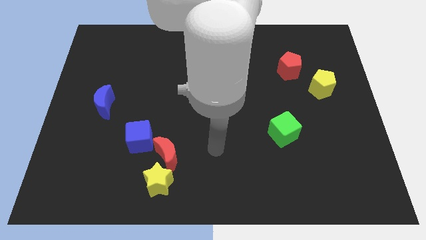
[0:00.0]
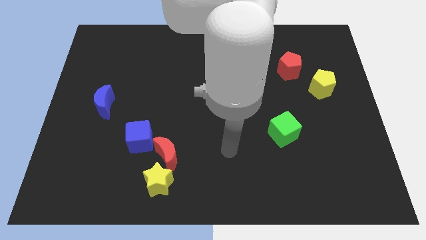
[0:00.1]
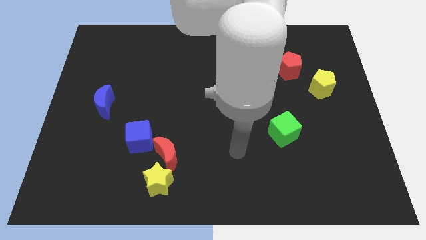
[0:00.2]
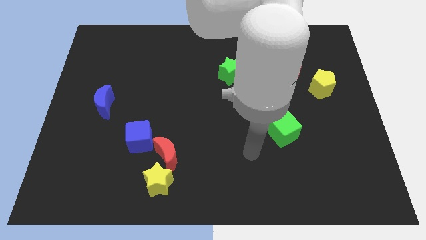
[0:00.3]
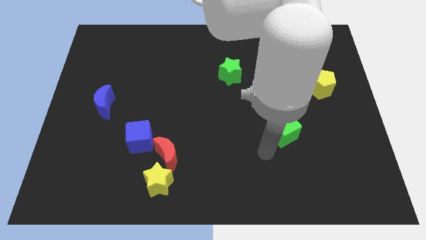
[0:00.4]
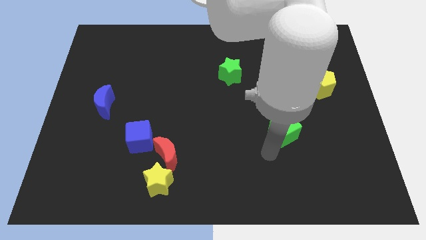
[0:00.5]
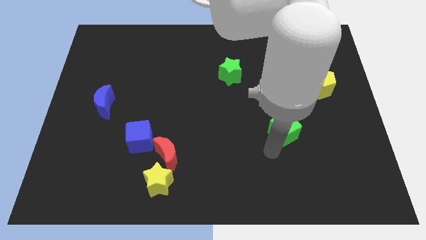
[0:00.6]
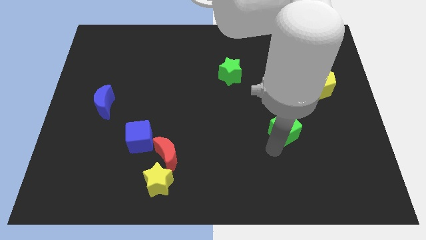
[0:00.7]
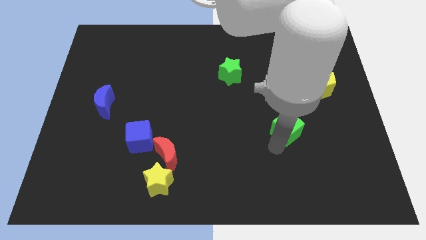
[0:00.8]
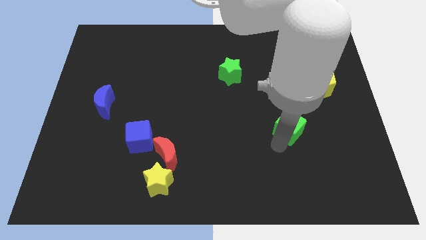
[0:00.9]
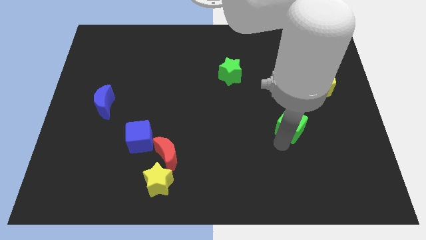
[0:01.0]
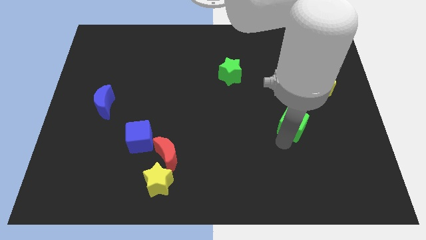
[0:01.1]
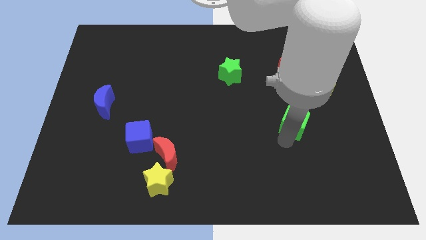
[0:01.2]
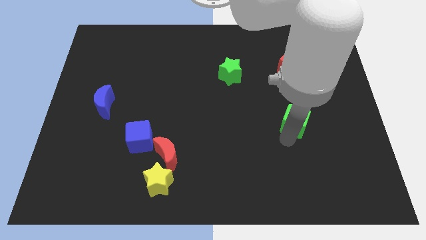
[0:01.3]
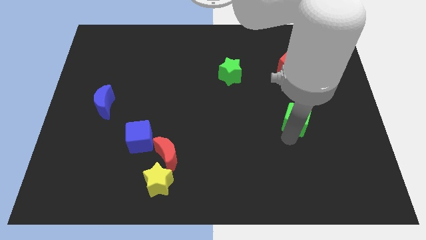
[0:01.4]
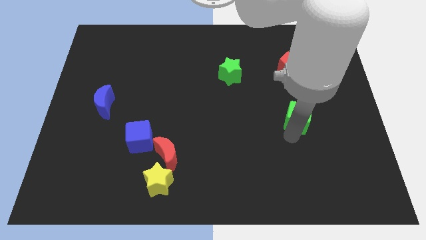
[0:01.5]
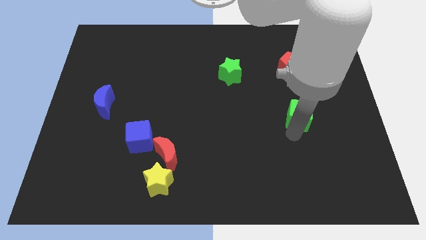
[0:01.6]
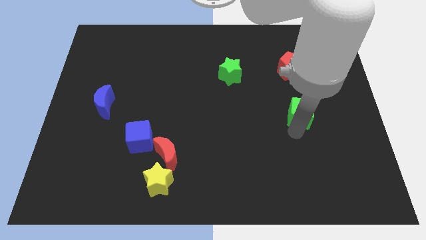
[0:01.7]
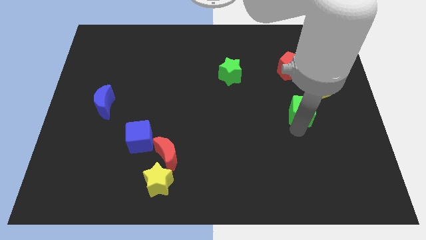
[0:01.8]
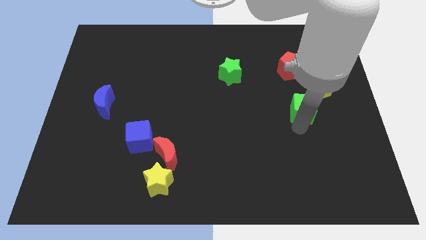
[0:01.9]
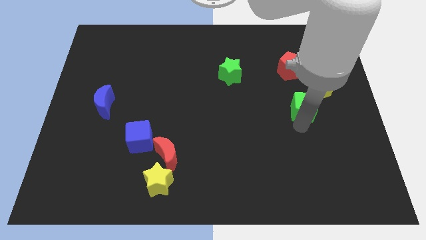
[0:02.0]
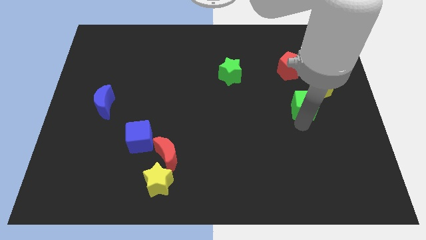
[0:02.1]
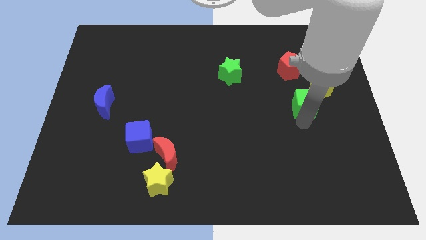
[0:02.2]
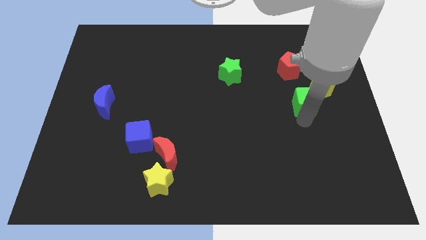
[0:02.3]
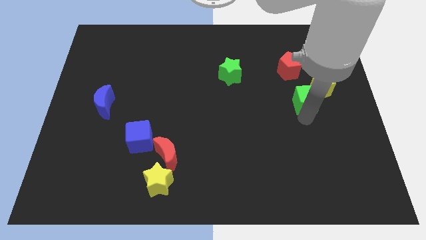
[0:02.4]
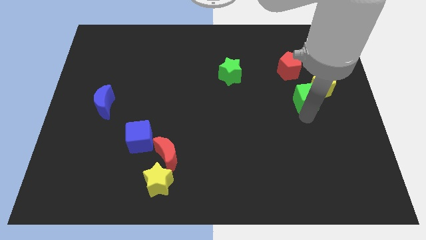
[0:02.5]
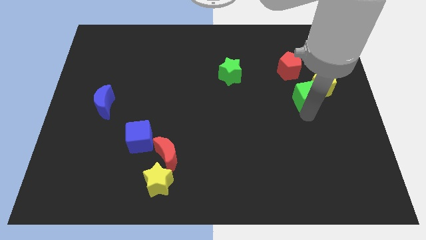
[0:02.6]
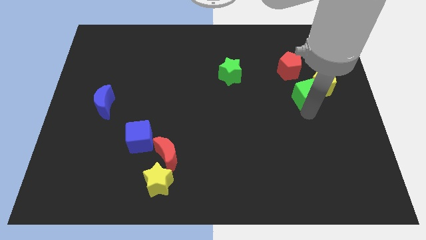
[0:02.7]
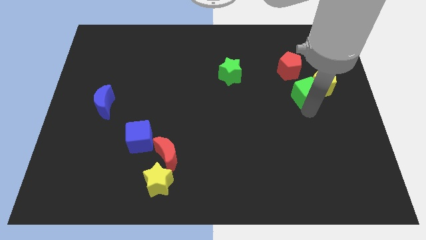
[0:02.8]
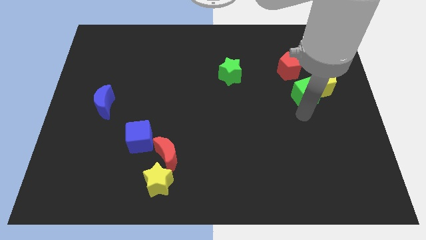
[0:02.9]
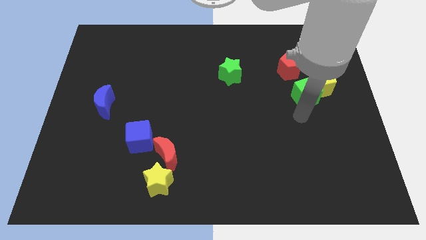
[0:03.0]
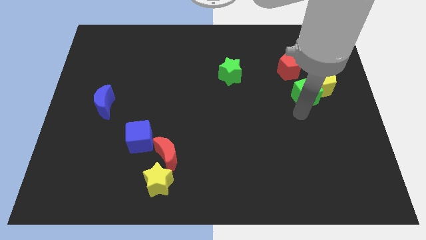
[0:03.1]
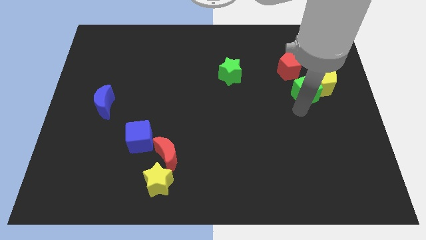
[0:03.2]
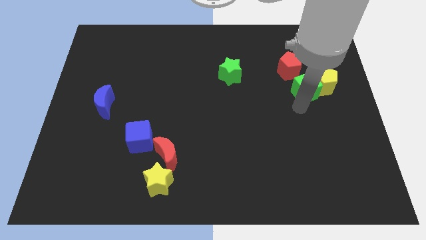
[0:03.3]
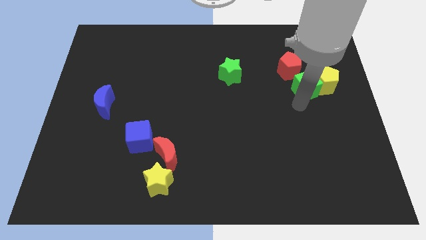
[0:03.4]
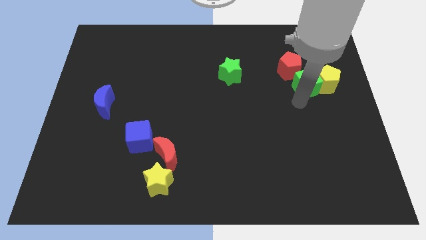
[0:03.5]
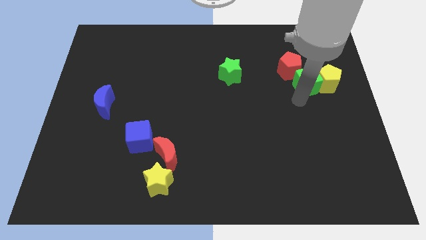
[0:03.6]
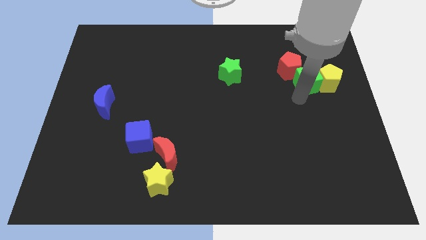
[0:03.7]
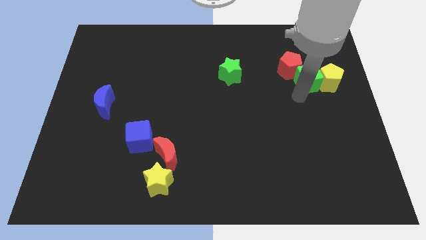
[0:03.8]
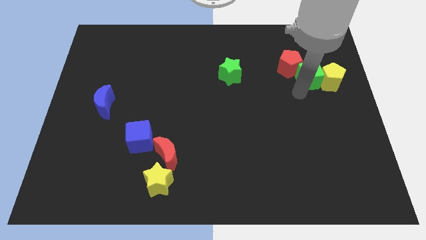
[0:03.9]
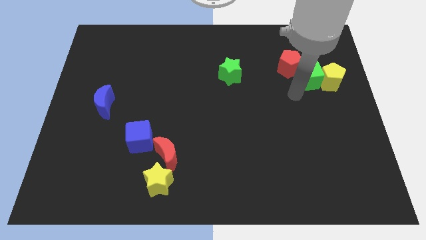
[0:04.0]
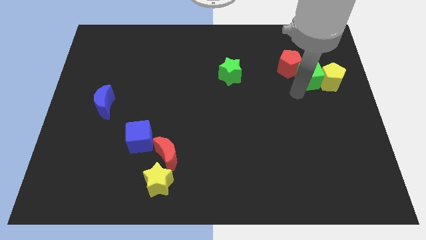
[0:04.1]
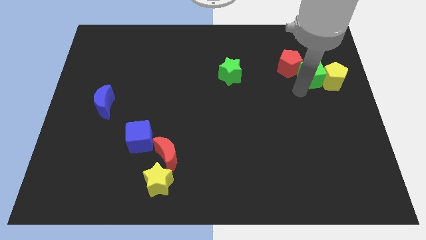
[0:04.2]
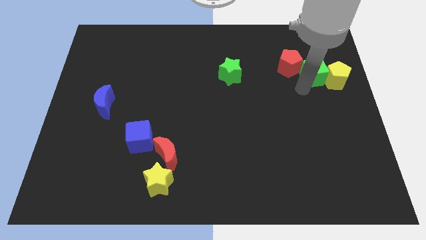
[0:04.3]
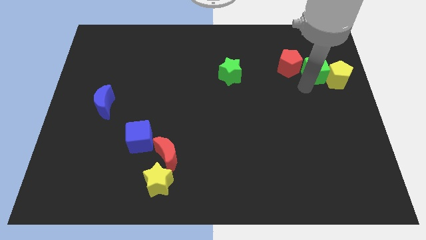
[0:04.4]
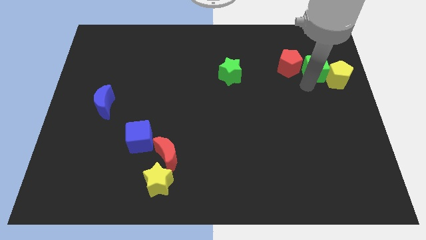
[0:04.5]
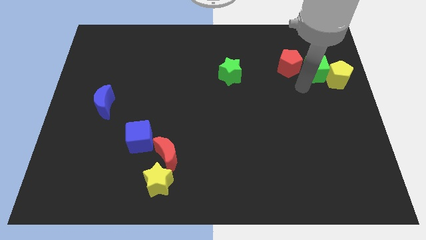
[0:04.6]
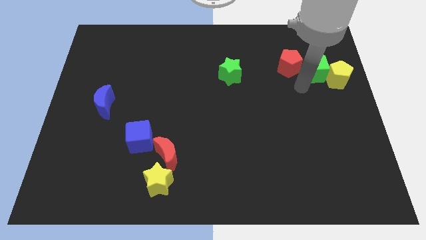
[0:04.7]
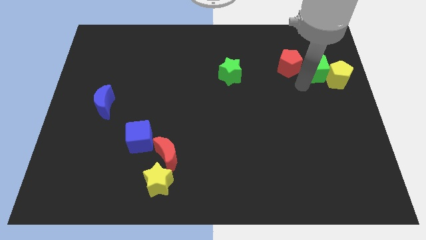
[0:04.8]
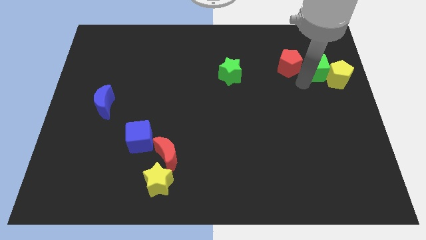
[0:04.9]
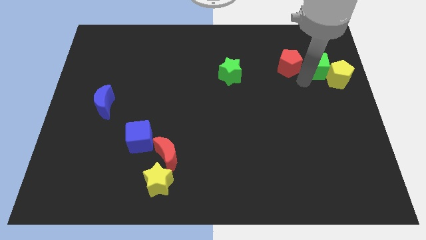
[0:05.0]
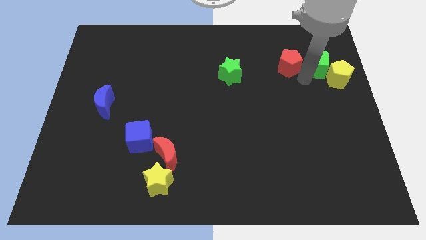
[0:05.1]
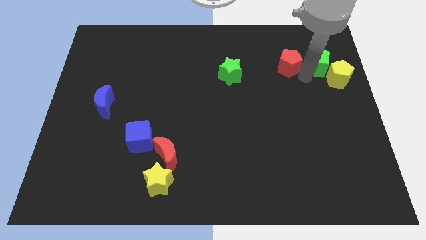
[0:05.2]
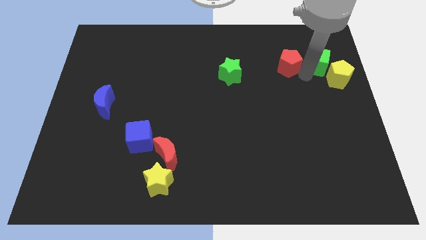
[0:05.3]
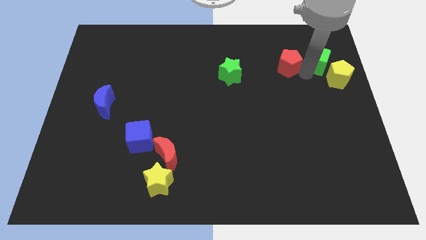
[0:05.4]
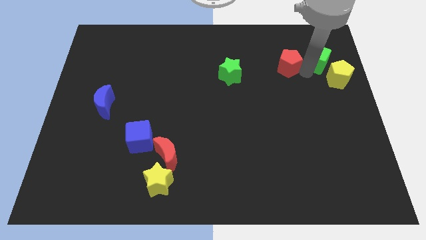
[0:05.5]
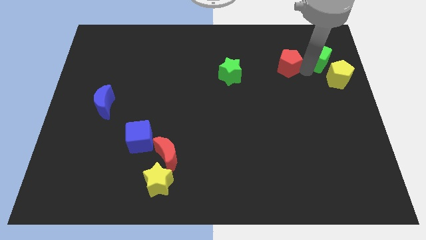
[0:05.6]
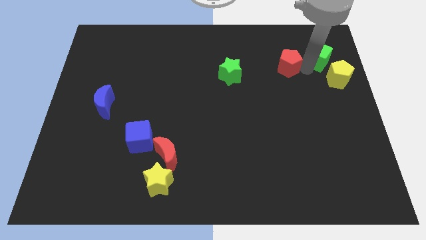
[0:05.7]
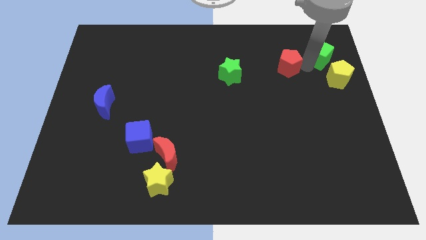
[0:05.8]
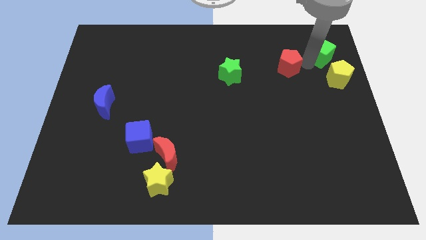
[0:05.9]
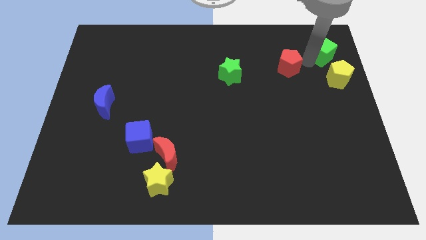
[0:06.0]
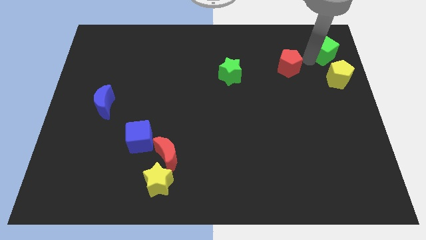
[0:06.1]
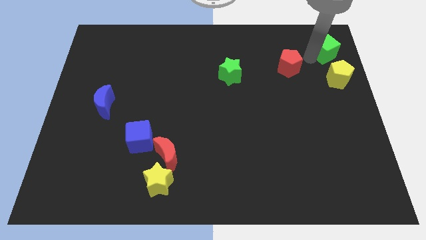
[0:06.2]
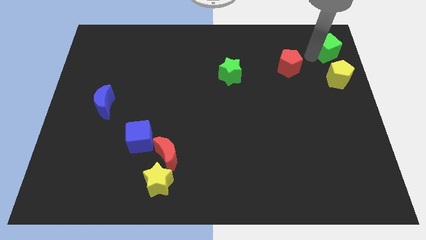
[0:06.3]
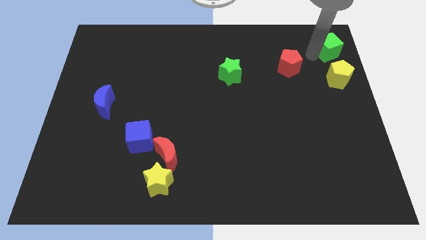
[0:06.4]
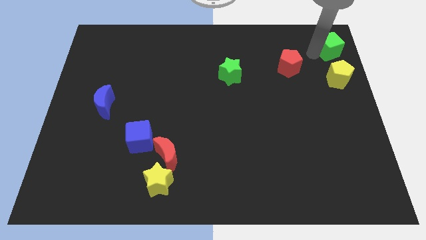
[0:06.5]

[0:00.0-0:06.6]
put the green cube to the top right corner
